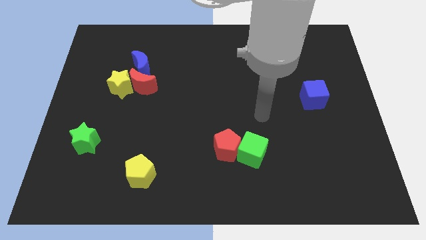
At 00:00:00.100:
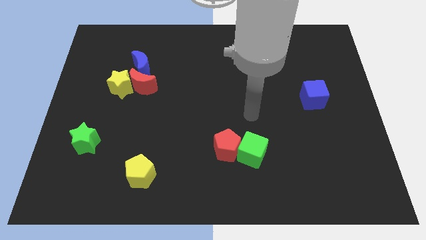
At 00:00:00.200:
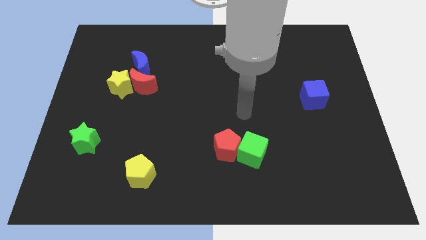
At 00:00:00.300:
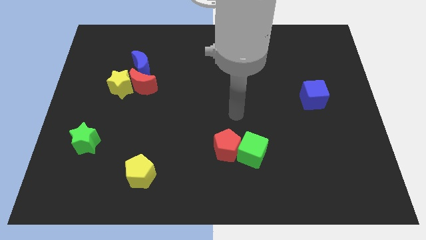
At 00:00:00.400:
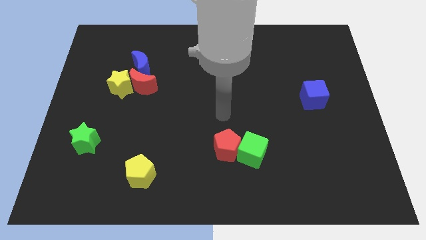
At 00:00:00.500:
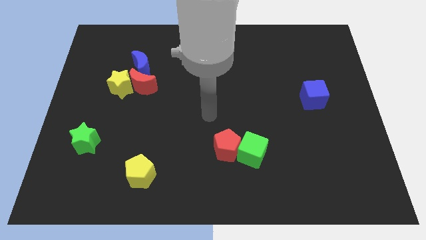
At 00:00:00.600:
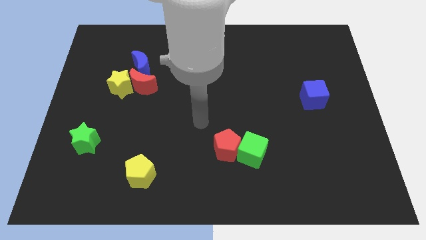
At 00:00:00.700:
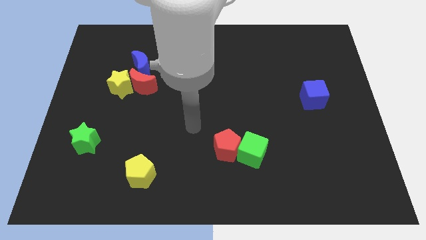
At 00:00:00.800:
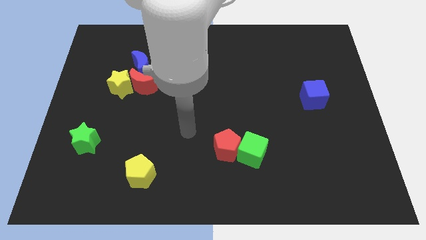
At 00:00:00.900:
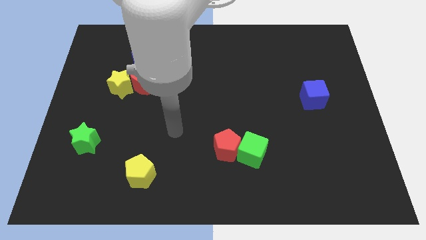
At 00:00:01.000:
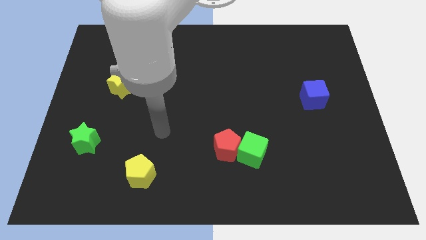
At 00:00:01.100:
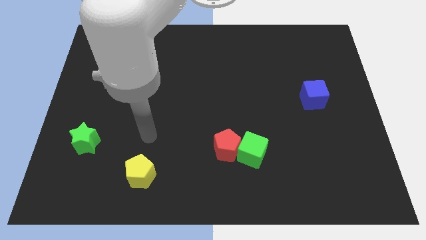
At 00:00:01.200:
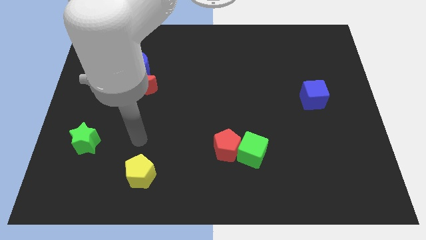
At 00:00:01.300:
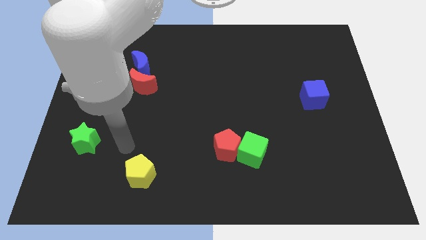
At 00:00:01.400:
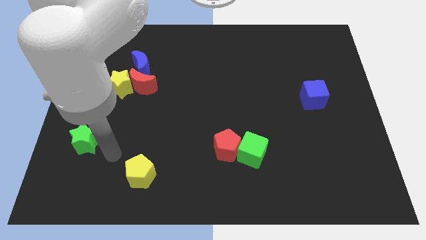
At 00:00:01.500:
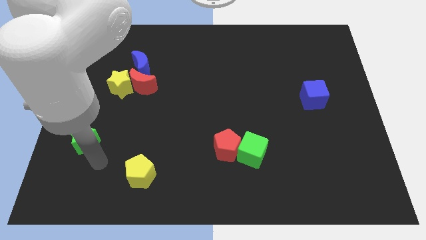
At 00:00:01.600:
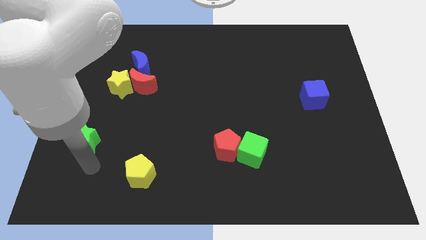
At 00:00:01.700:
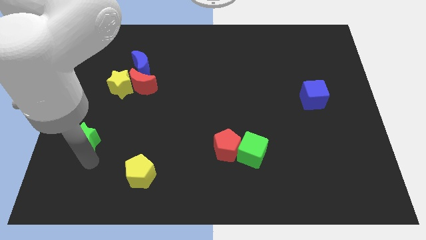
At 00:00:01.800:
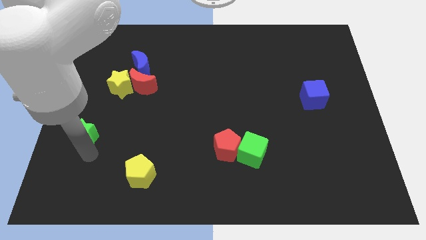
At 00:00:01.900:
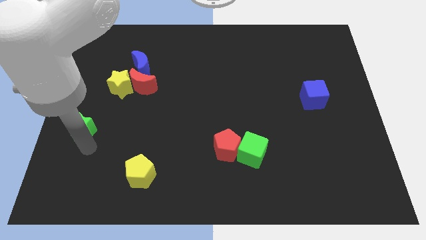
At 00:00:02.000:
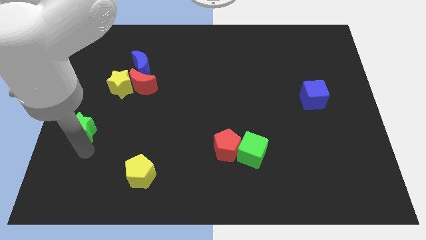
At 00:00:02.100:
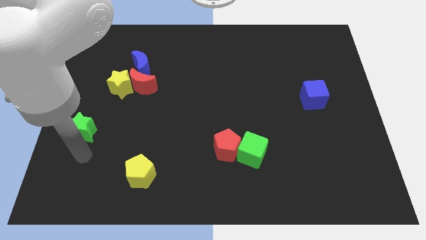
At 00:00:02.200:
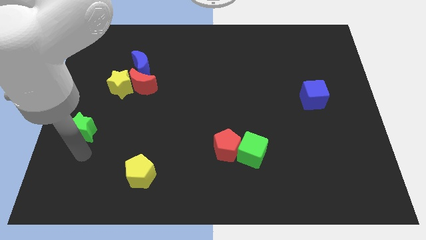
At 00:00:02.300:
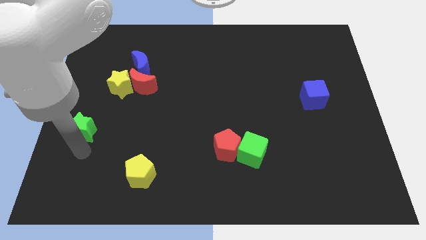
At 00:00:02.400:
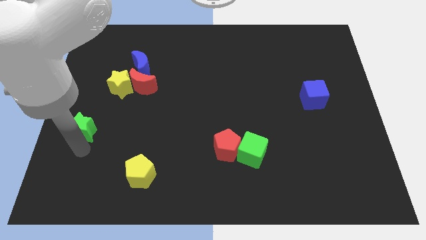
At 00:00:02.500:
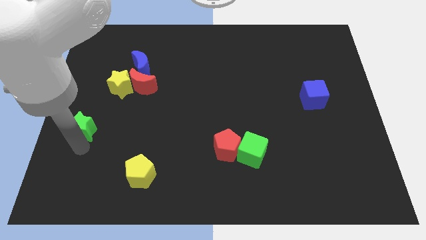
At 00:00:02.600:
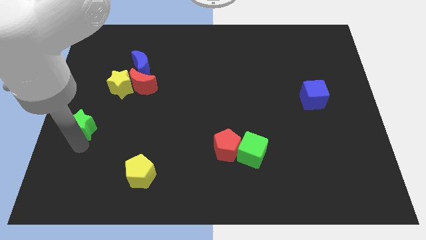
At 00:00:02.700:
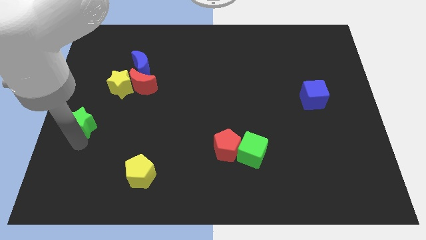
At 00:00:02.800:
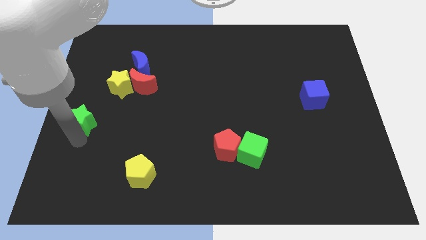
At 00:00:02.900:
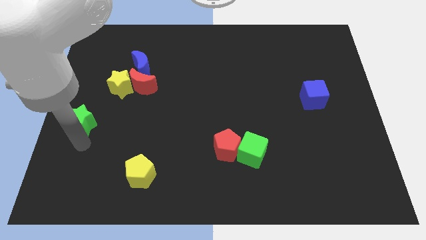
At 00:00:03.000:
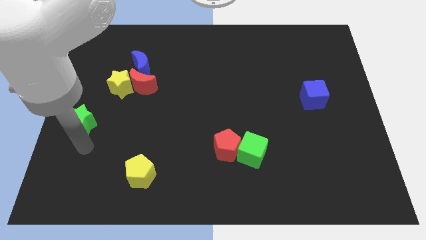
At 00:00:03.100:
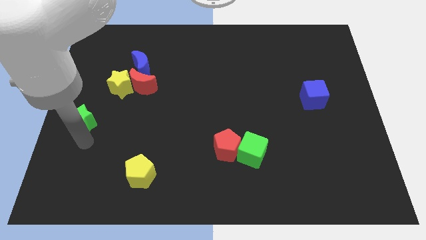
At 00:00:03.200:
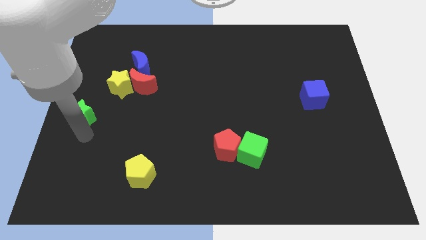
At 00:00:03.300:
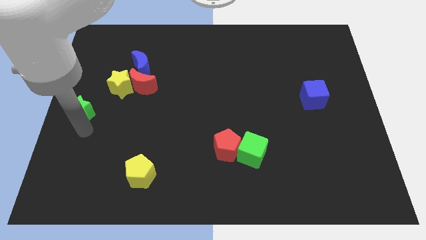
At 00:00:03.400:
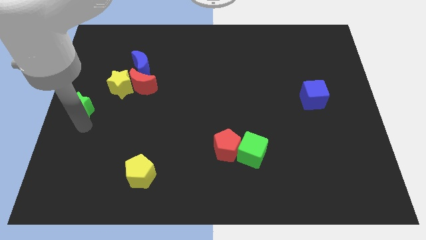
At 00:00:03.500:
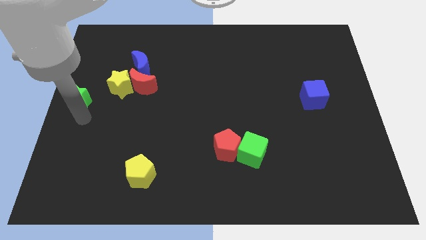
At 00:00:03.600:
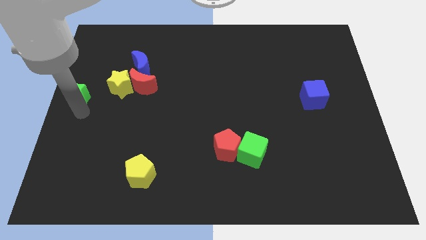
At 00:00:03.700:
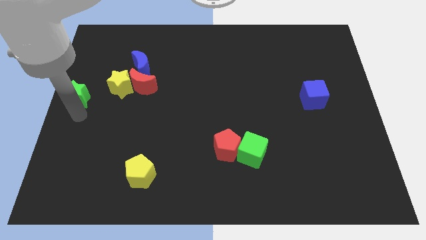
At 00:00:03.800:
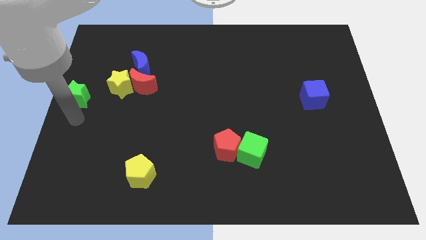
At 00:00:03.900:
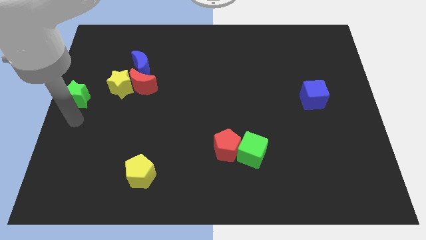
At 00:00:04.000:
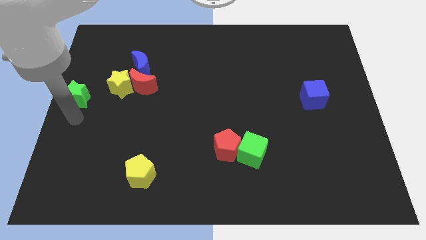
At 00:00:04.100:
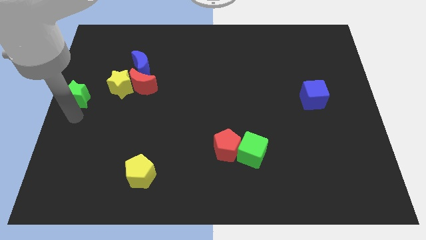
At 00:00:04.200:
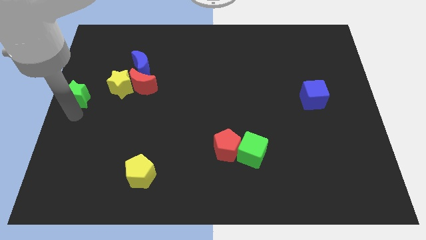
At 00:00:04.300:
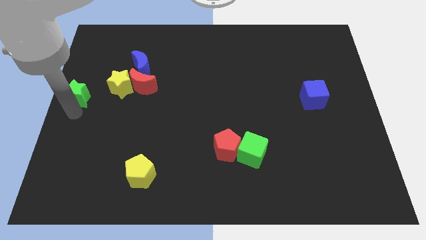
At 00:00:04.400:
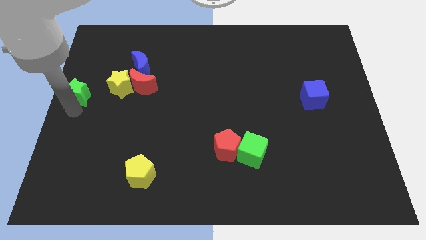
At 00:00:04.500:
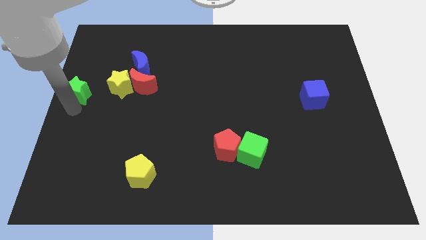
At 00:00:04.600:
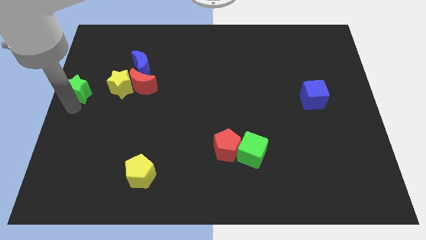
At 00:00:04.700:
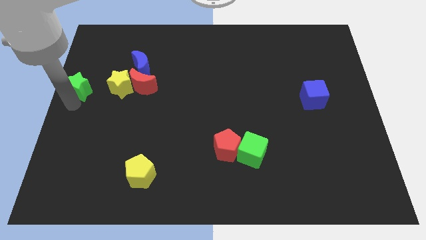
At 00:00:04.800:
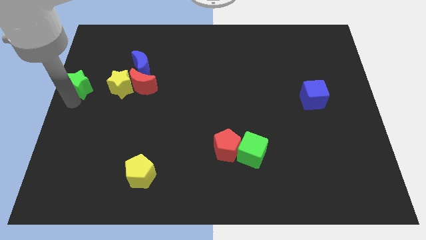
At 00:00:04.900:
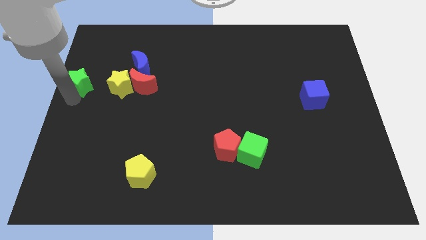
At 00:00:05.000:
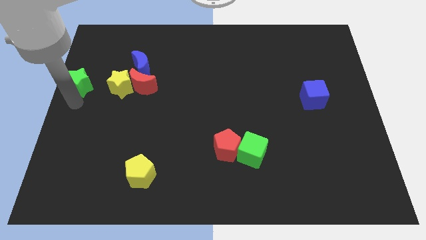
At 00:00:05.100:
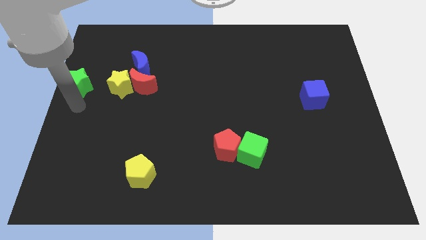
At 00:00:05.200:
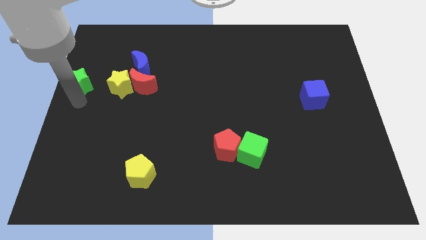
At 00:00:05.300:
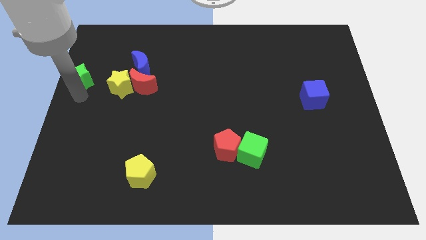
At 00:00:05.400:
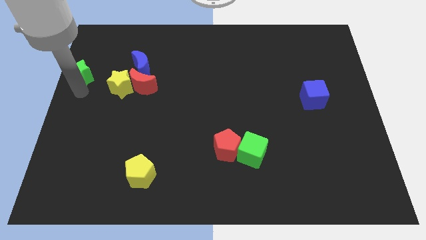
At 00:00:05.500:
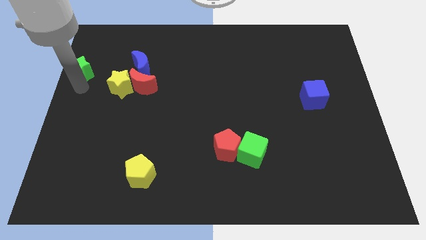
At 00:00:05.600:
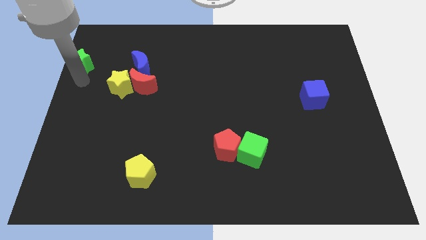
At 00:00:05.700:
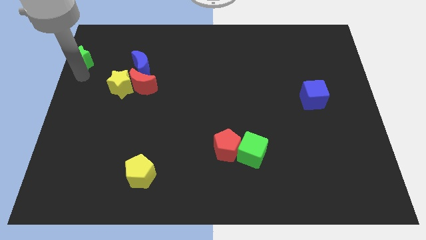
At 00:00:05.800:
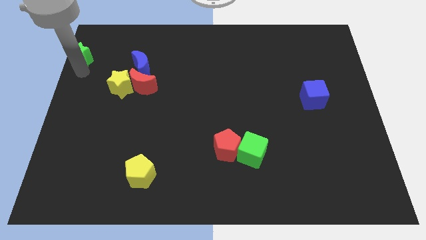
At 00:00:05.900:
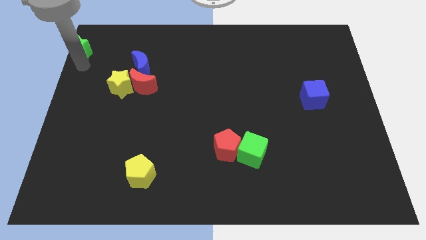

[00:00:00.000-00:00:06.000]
move the green star to the upper left corner
